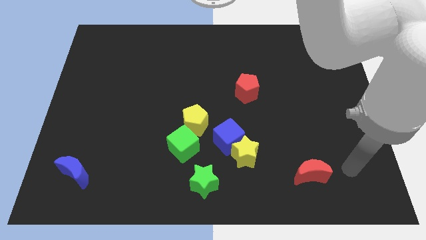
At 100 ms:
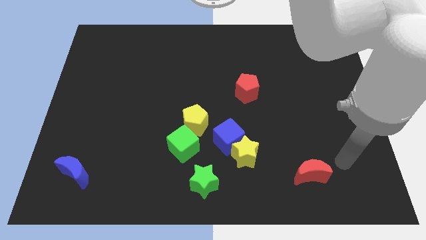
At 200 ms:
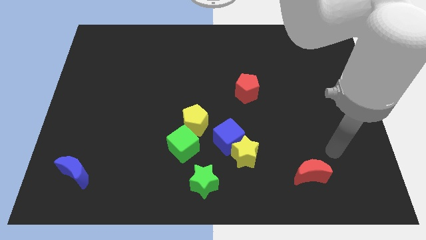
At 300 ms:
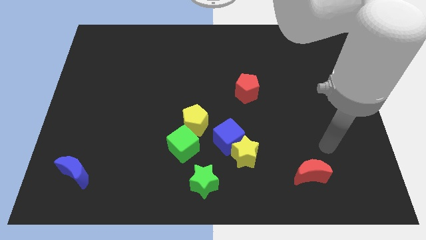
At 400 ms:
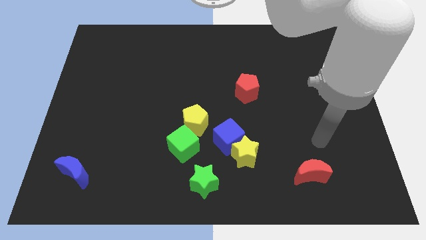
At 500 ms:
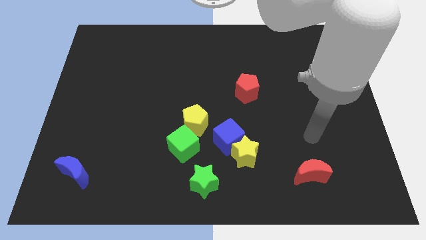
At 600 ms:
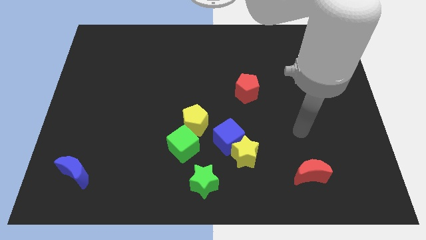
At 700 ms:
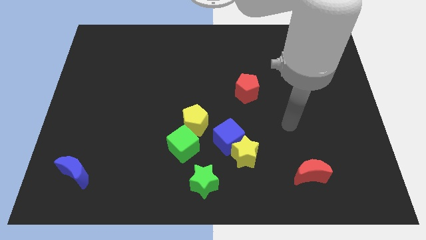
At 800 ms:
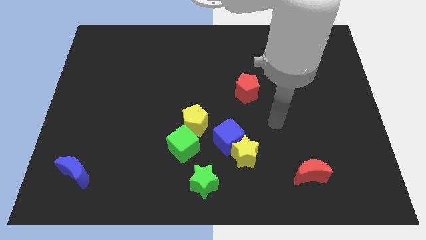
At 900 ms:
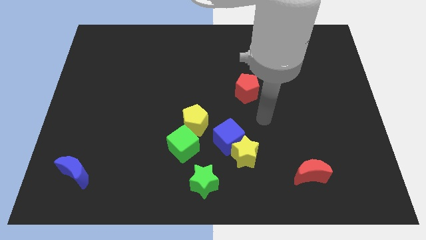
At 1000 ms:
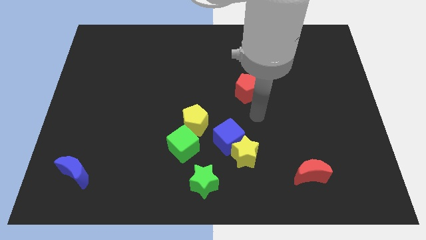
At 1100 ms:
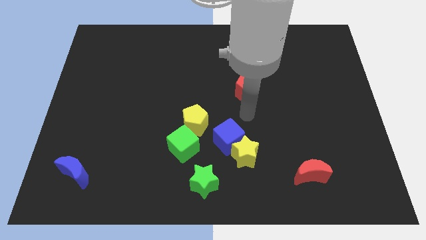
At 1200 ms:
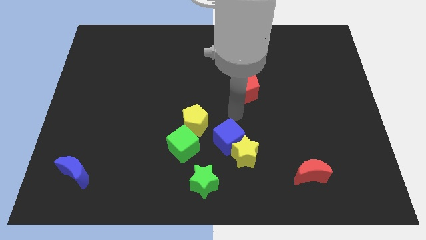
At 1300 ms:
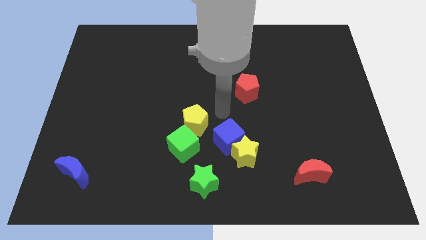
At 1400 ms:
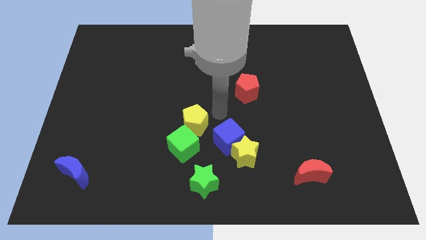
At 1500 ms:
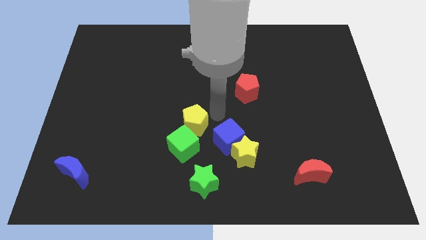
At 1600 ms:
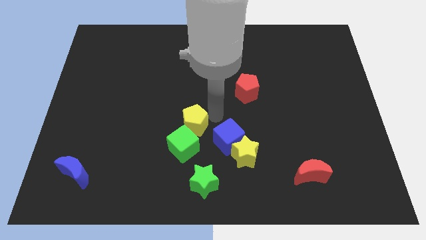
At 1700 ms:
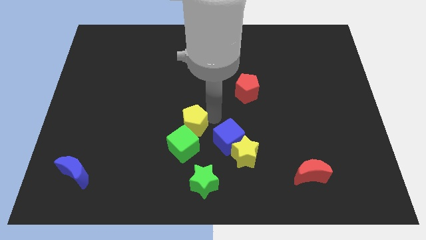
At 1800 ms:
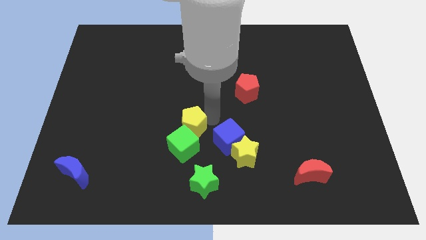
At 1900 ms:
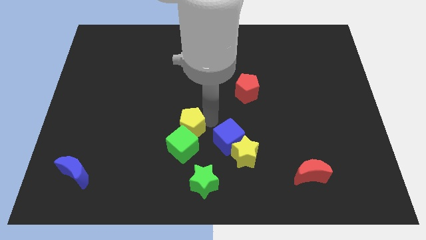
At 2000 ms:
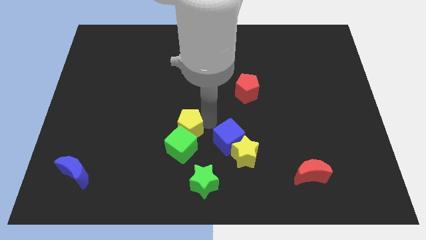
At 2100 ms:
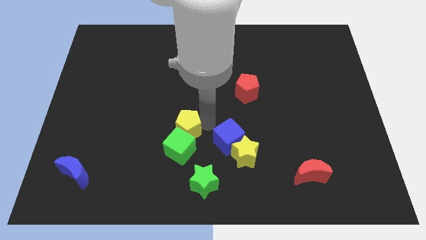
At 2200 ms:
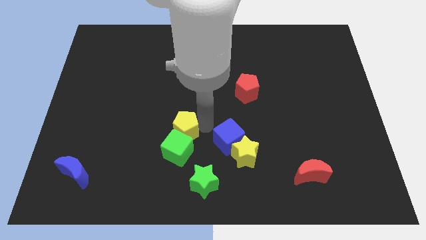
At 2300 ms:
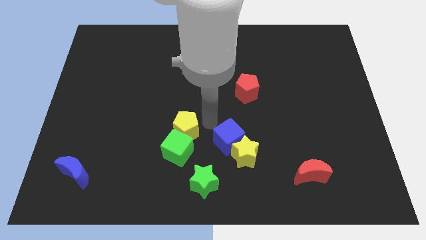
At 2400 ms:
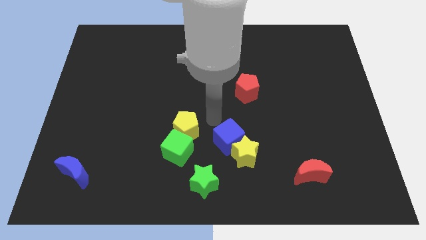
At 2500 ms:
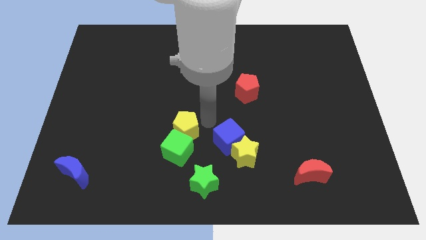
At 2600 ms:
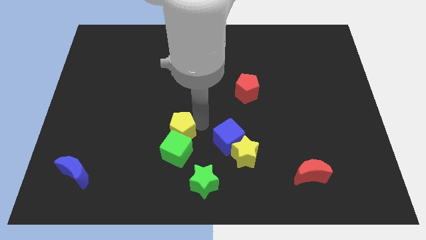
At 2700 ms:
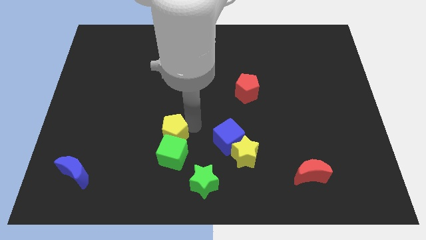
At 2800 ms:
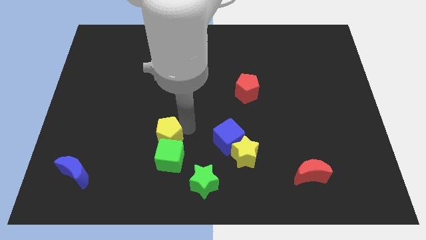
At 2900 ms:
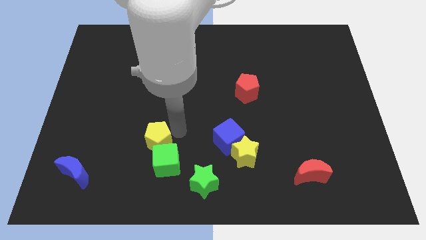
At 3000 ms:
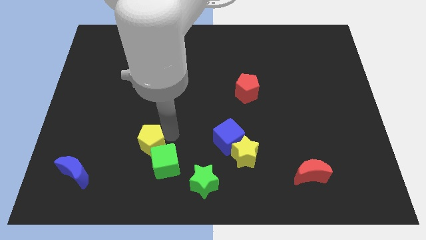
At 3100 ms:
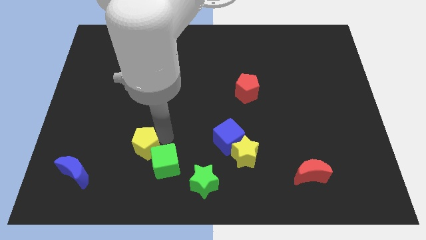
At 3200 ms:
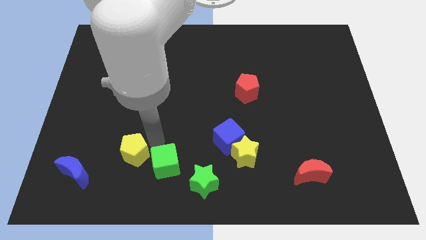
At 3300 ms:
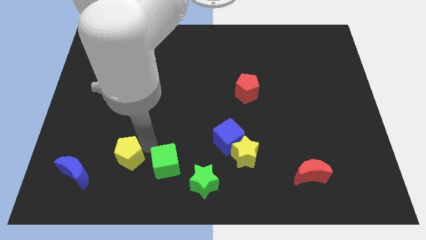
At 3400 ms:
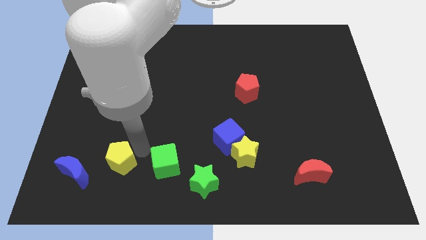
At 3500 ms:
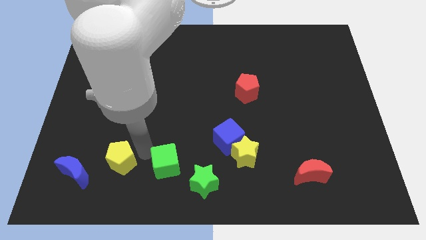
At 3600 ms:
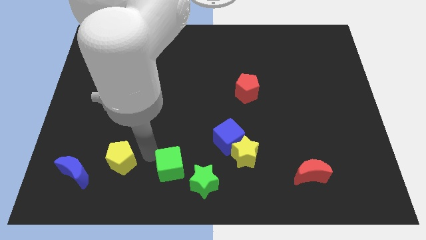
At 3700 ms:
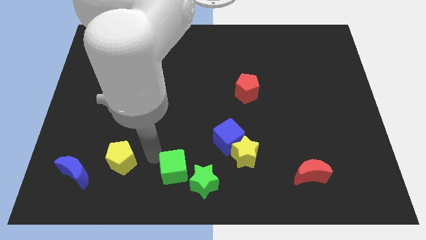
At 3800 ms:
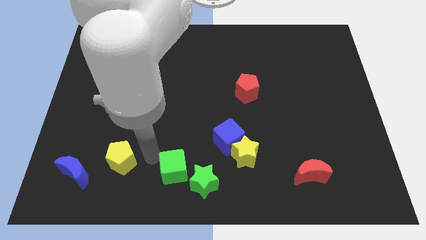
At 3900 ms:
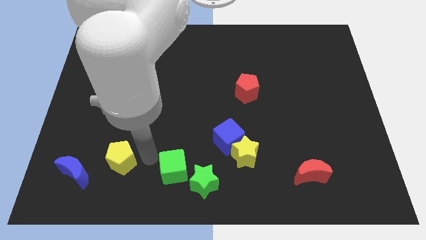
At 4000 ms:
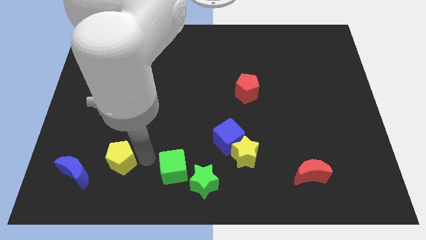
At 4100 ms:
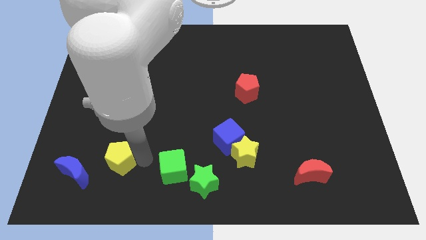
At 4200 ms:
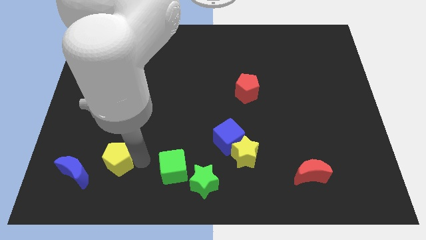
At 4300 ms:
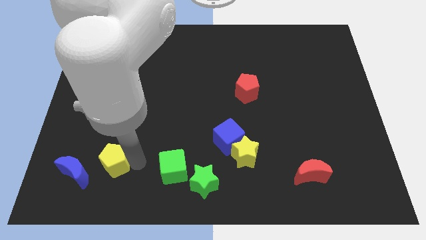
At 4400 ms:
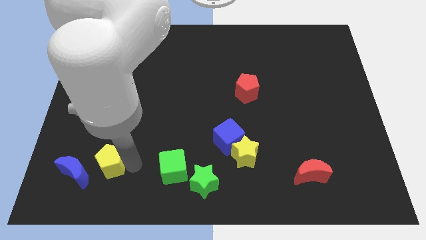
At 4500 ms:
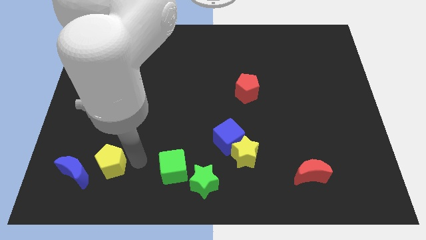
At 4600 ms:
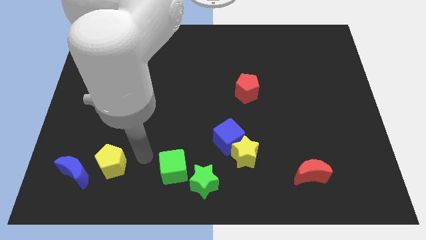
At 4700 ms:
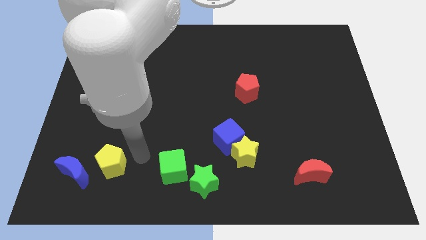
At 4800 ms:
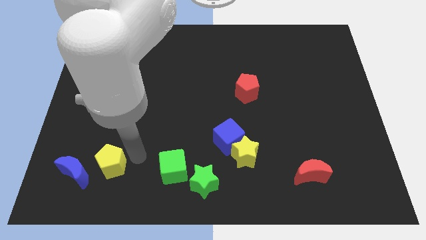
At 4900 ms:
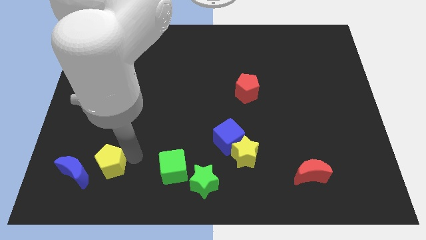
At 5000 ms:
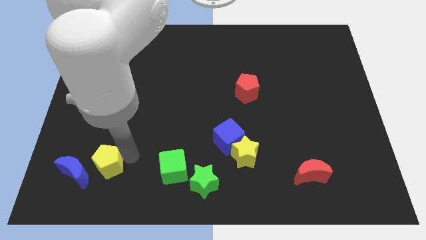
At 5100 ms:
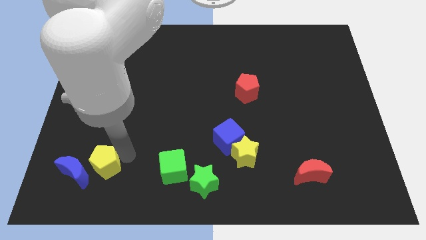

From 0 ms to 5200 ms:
put the yellow pentagon close to the blue moon

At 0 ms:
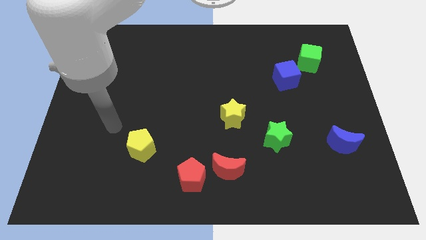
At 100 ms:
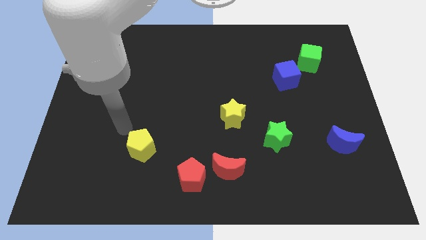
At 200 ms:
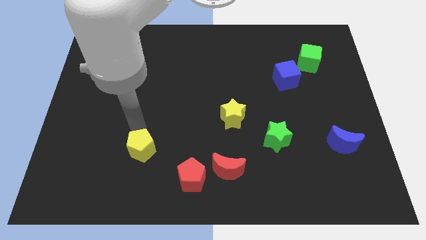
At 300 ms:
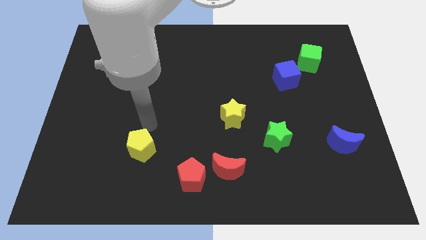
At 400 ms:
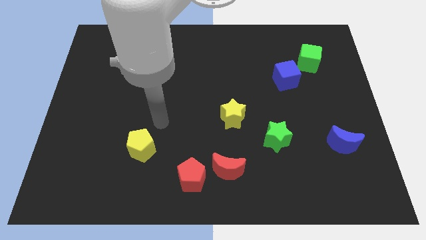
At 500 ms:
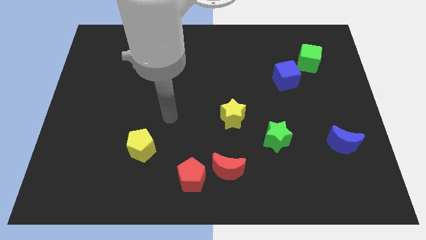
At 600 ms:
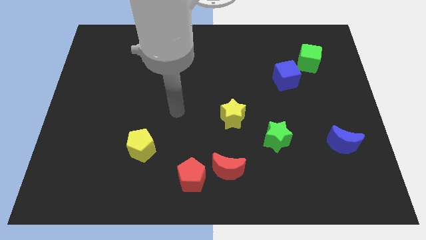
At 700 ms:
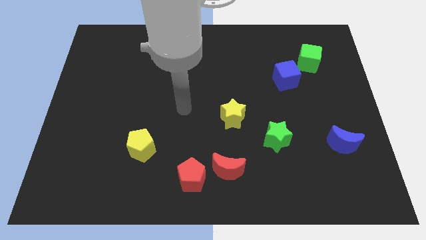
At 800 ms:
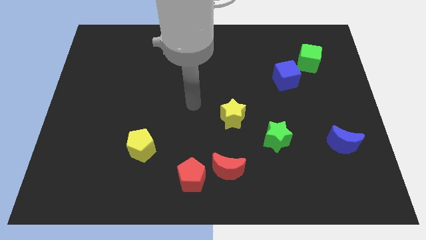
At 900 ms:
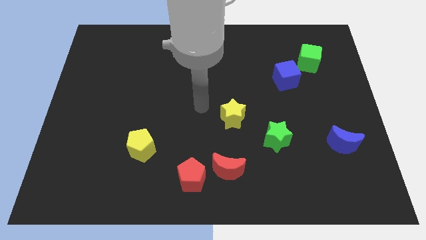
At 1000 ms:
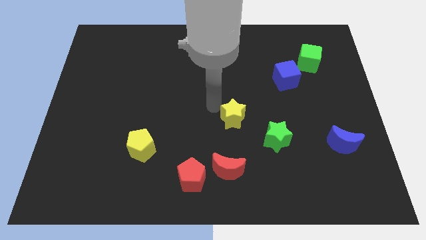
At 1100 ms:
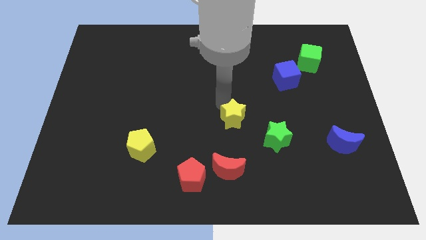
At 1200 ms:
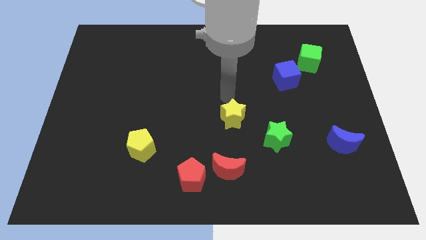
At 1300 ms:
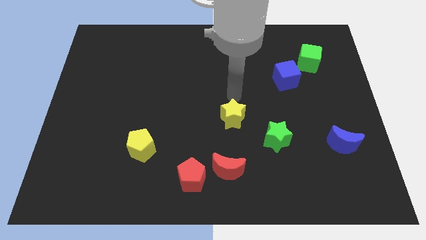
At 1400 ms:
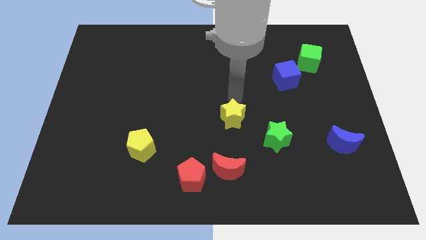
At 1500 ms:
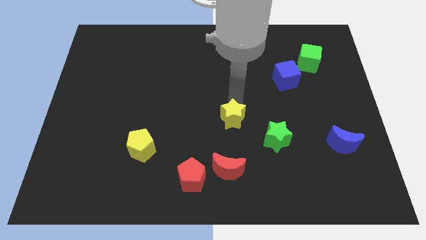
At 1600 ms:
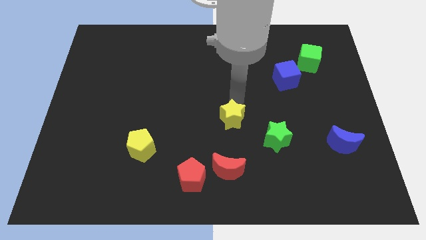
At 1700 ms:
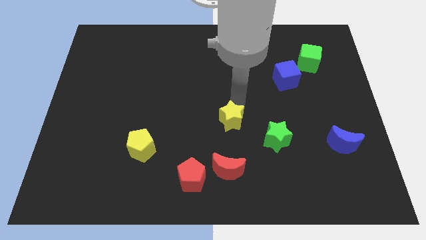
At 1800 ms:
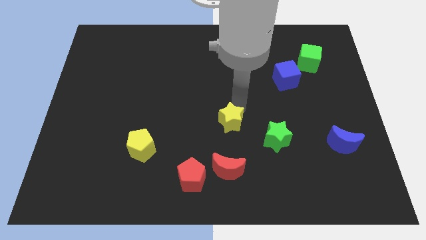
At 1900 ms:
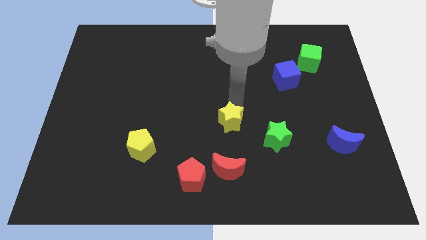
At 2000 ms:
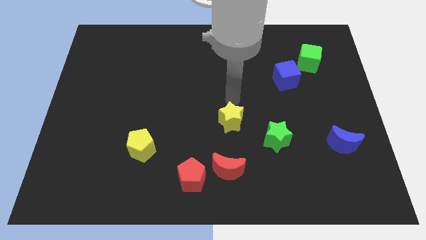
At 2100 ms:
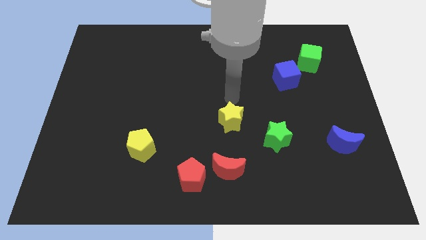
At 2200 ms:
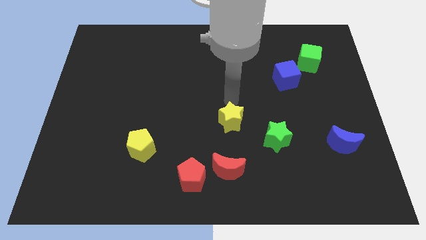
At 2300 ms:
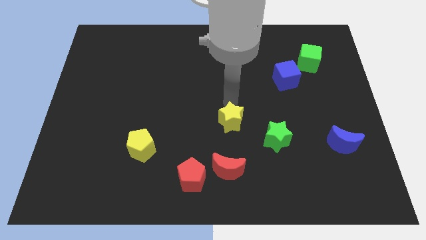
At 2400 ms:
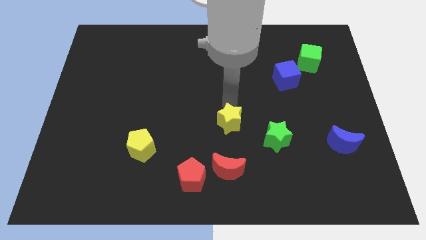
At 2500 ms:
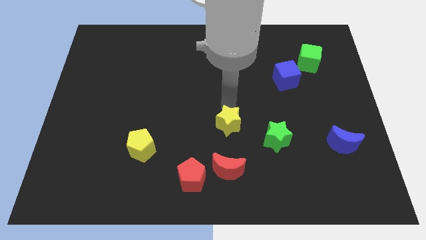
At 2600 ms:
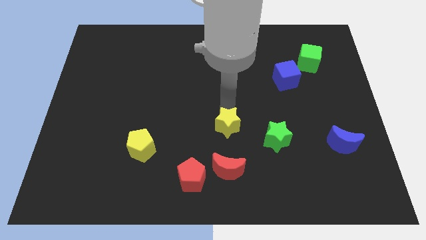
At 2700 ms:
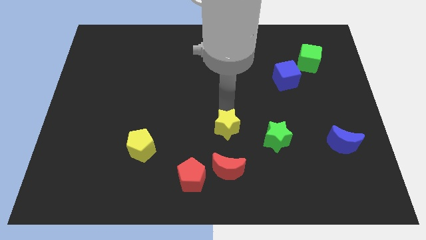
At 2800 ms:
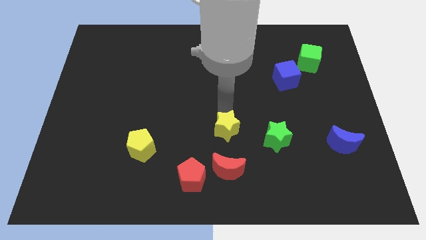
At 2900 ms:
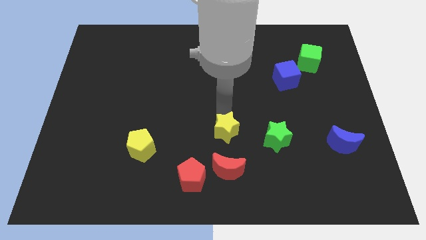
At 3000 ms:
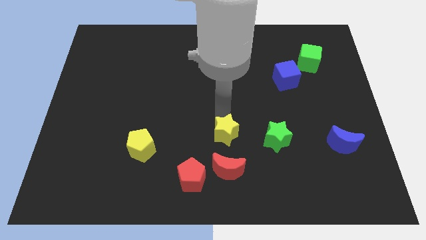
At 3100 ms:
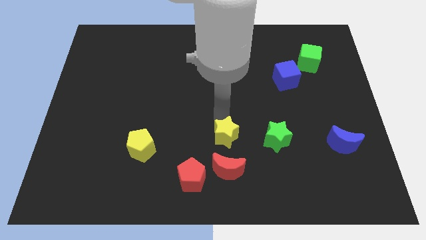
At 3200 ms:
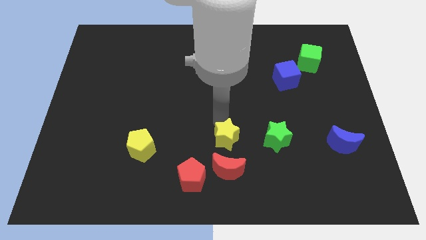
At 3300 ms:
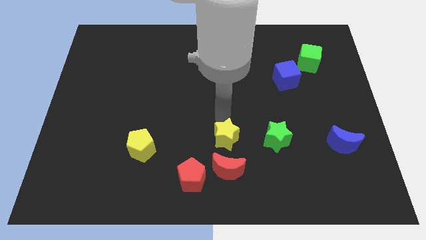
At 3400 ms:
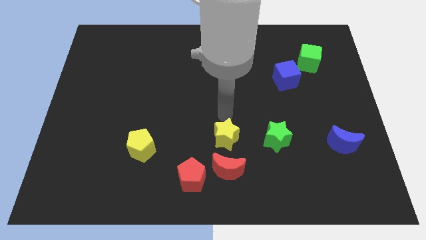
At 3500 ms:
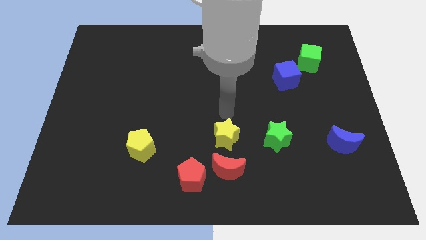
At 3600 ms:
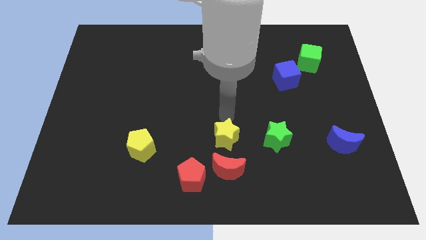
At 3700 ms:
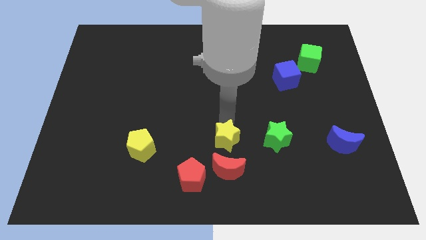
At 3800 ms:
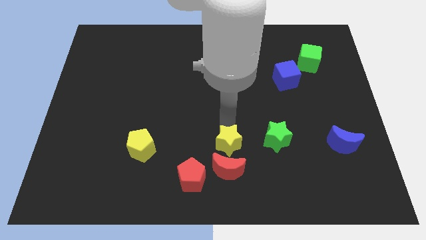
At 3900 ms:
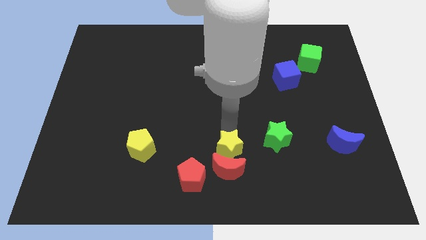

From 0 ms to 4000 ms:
push the yellow star towards the red moon
